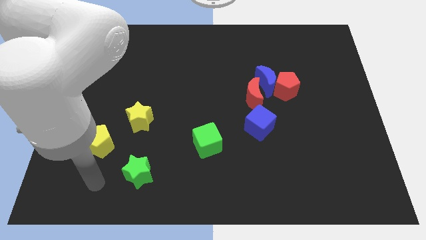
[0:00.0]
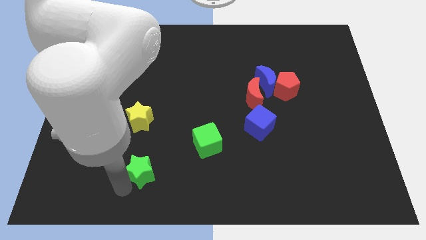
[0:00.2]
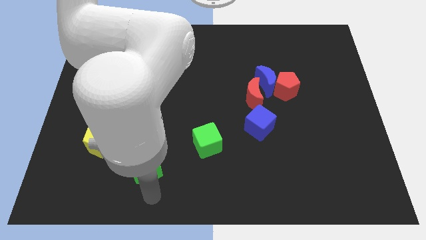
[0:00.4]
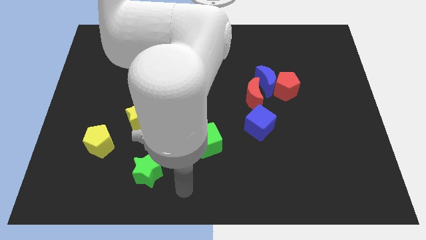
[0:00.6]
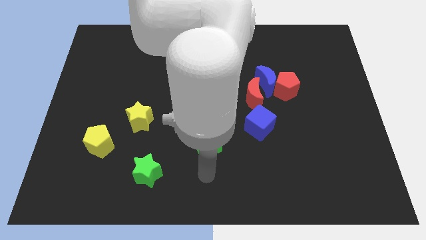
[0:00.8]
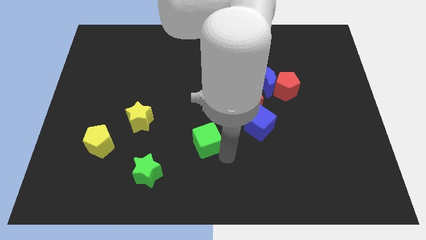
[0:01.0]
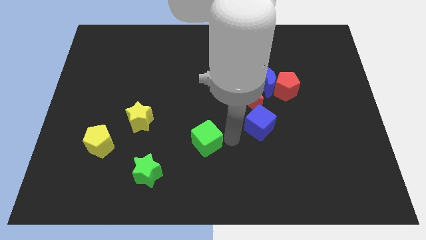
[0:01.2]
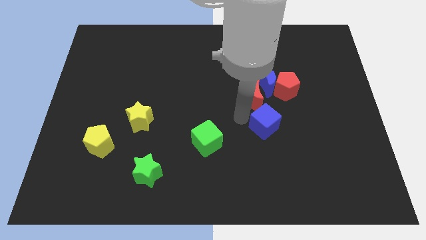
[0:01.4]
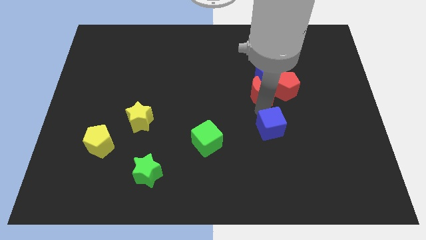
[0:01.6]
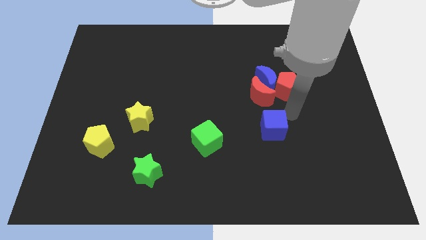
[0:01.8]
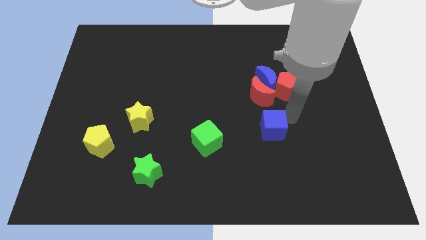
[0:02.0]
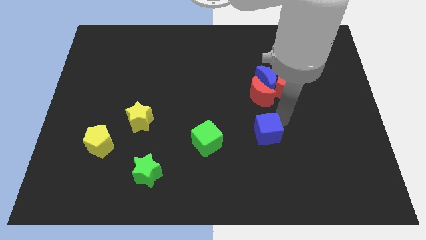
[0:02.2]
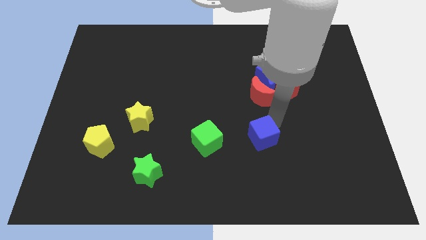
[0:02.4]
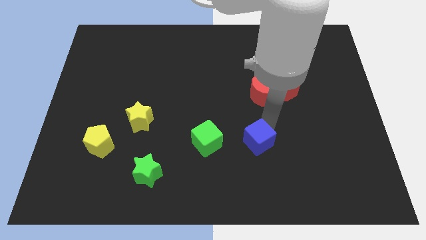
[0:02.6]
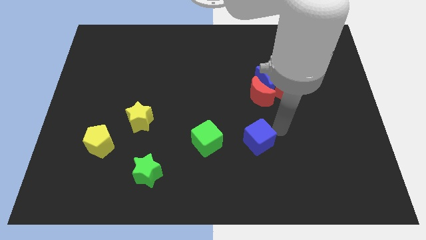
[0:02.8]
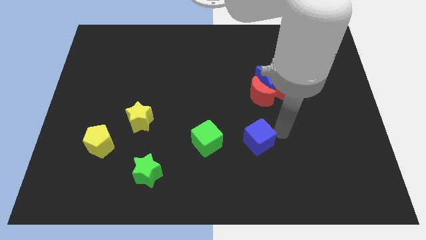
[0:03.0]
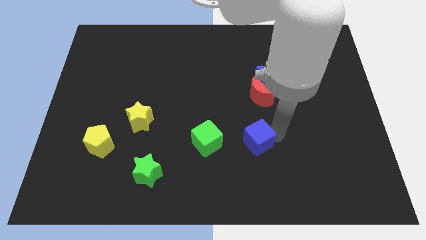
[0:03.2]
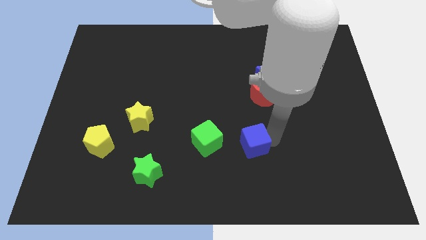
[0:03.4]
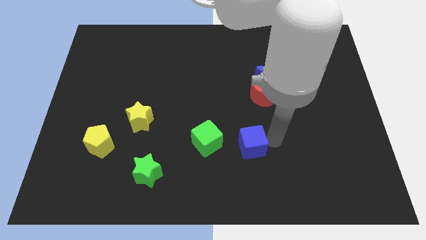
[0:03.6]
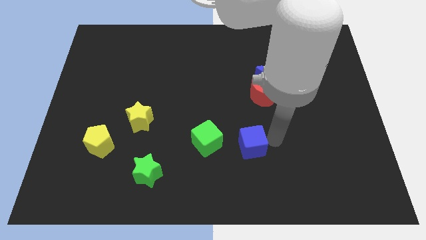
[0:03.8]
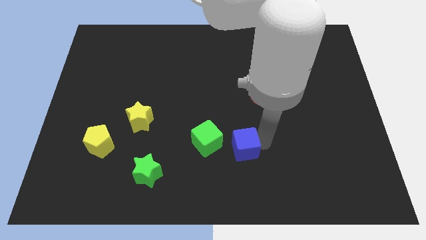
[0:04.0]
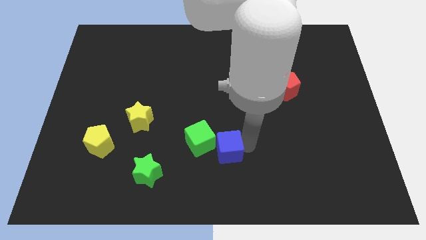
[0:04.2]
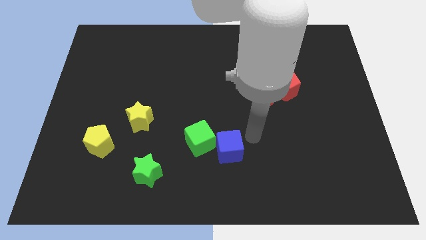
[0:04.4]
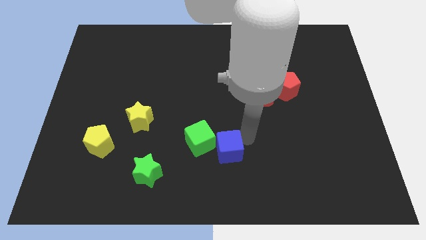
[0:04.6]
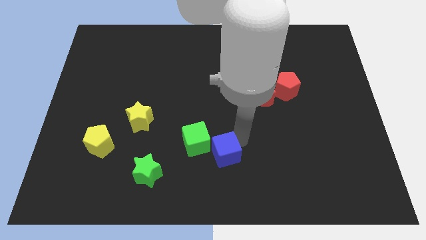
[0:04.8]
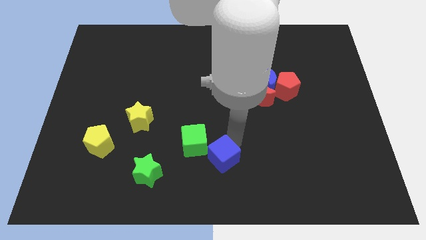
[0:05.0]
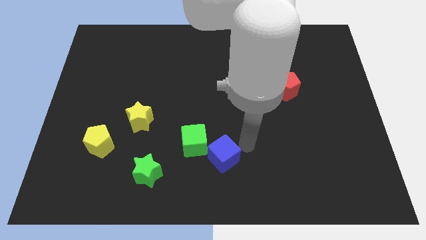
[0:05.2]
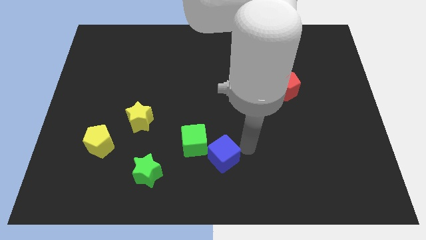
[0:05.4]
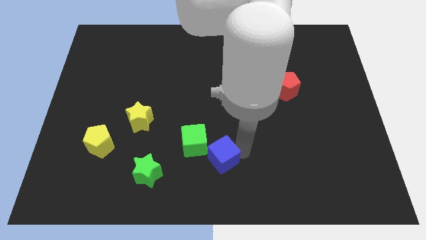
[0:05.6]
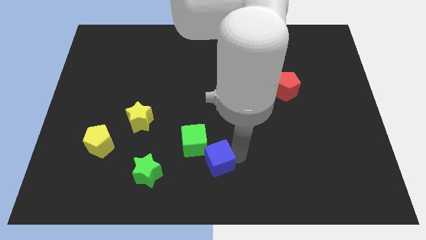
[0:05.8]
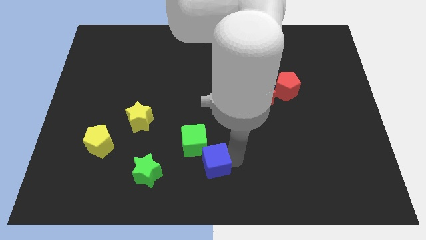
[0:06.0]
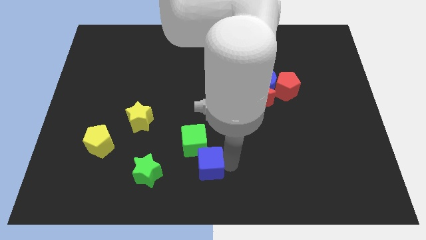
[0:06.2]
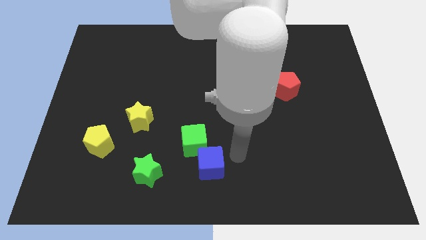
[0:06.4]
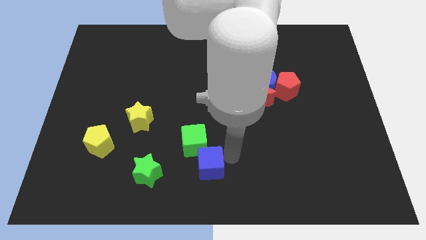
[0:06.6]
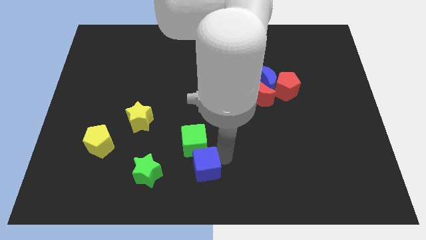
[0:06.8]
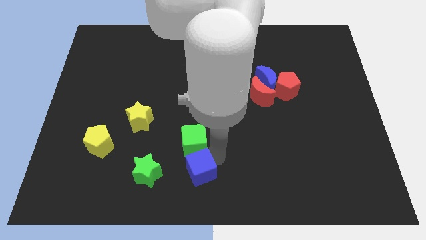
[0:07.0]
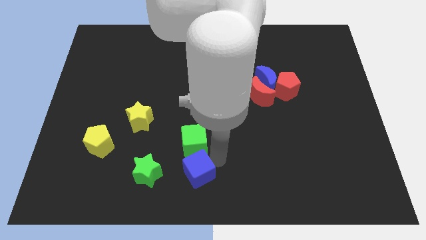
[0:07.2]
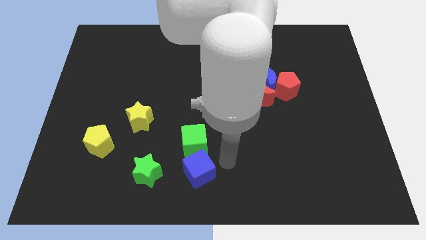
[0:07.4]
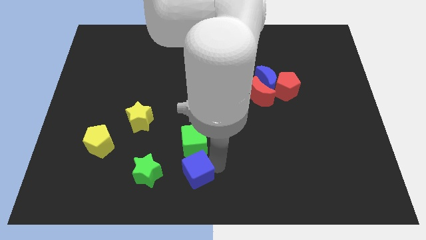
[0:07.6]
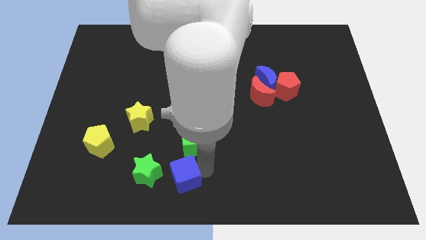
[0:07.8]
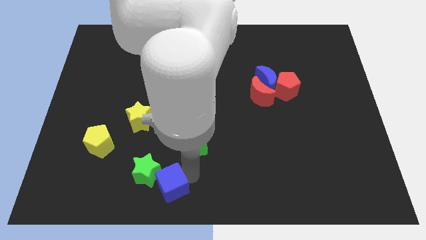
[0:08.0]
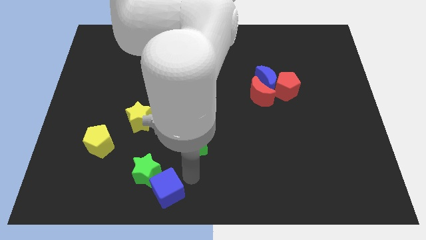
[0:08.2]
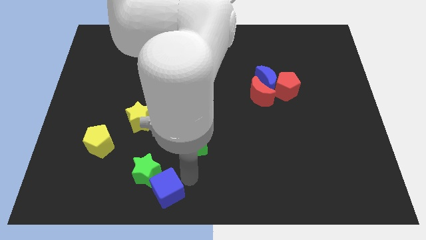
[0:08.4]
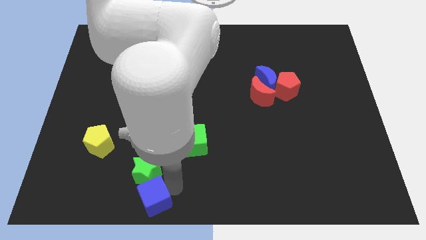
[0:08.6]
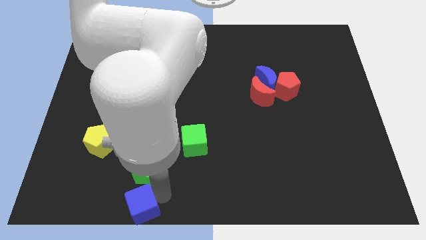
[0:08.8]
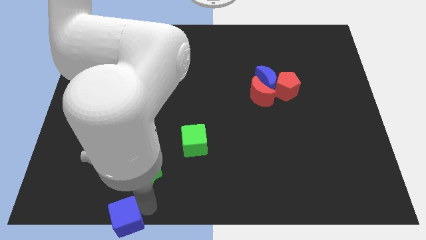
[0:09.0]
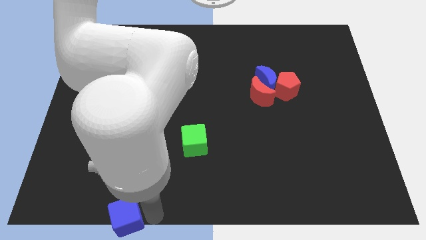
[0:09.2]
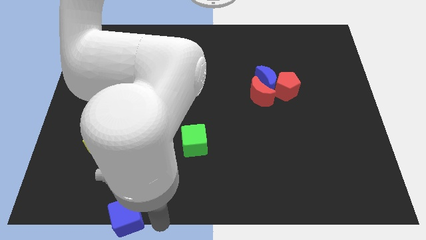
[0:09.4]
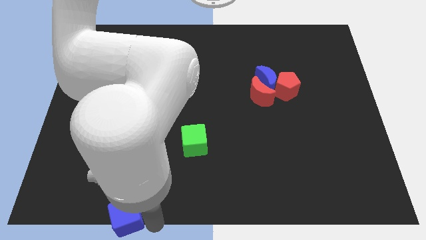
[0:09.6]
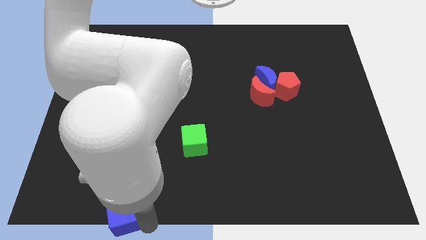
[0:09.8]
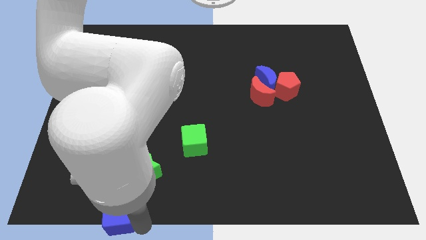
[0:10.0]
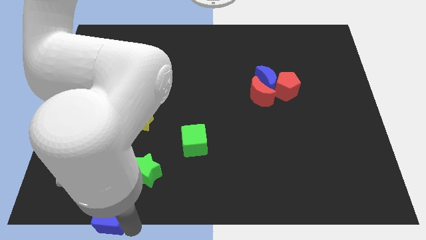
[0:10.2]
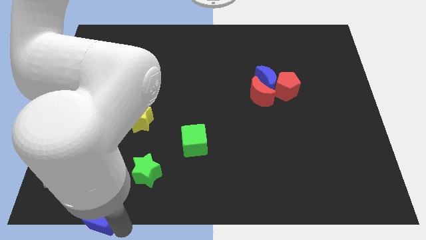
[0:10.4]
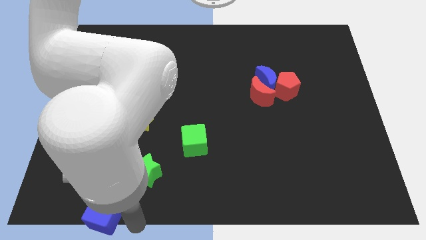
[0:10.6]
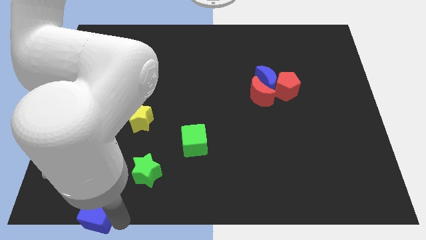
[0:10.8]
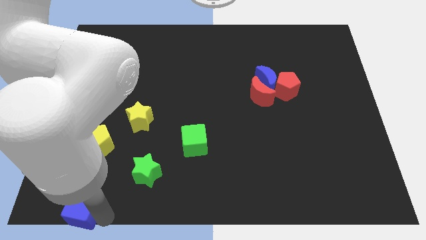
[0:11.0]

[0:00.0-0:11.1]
slide the blue cube to the bottom left of the board
